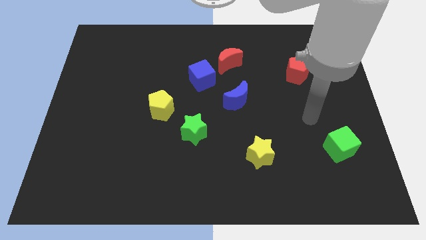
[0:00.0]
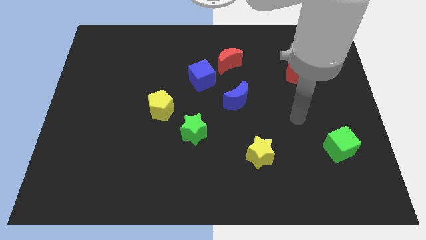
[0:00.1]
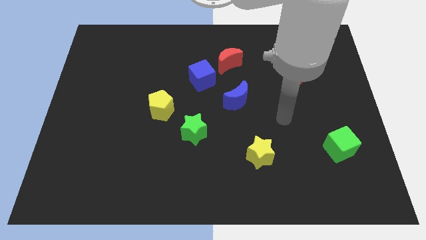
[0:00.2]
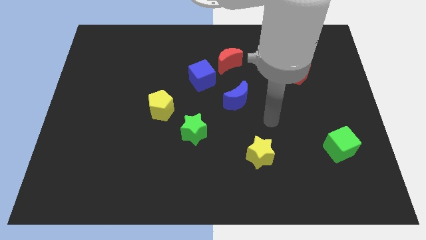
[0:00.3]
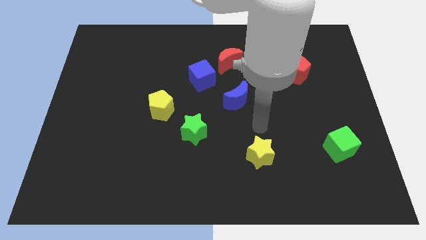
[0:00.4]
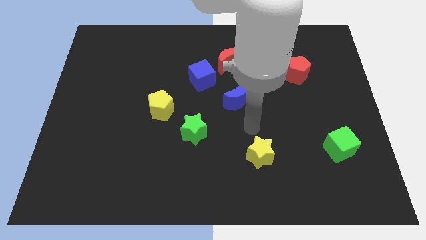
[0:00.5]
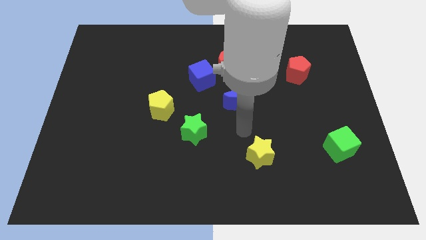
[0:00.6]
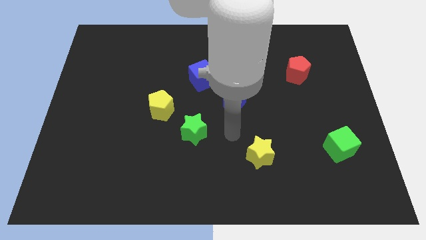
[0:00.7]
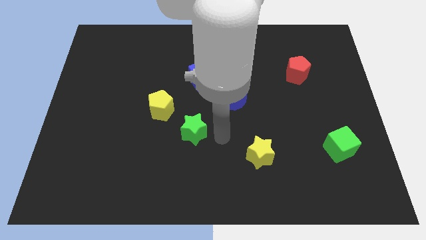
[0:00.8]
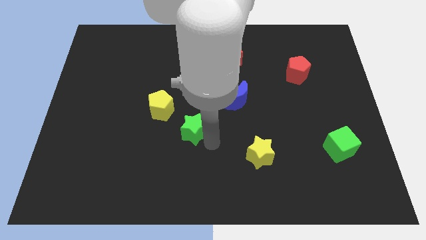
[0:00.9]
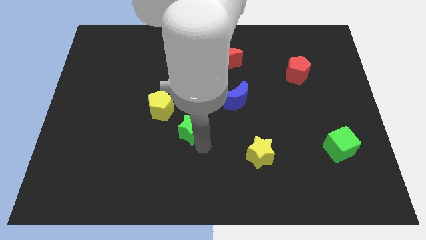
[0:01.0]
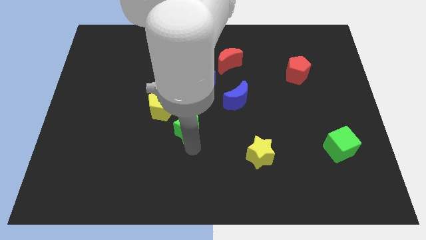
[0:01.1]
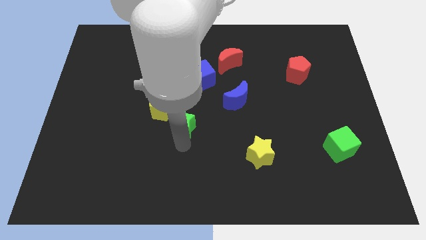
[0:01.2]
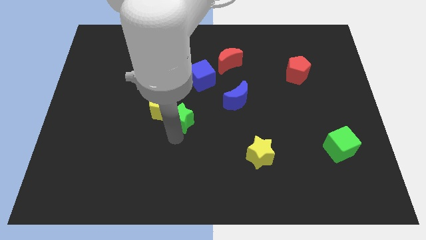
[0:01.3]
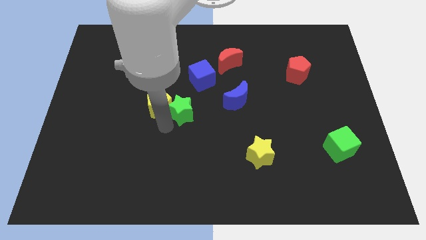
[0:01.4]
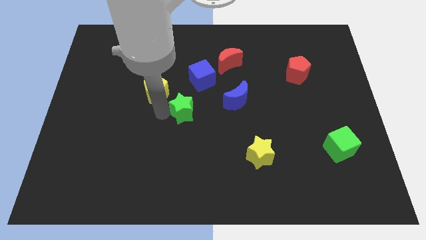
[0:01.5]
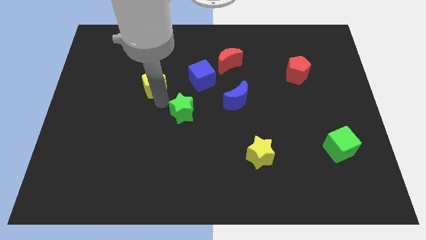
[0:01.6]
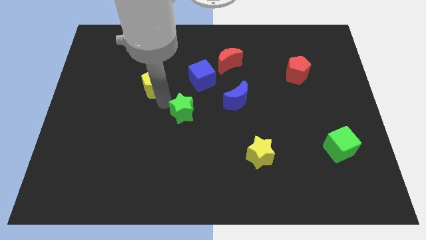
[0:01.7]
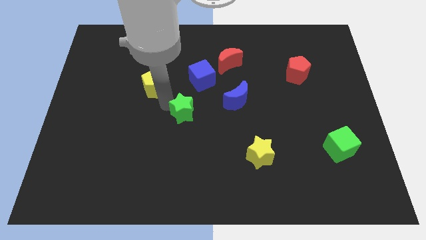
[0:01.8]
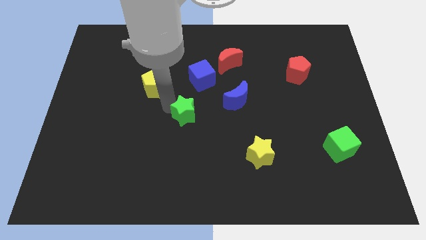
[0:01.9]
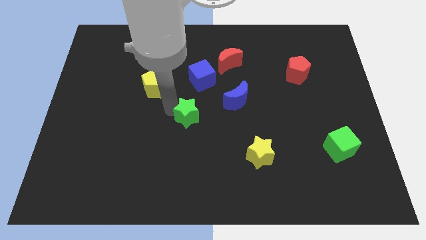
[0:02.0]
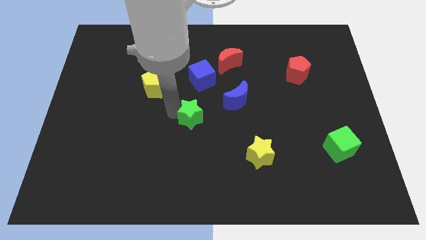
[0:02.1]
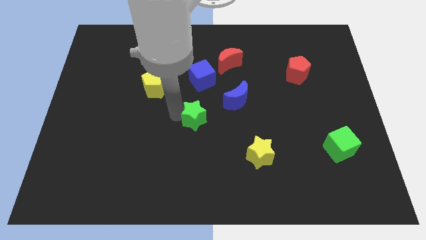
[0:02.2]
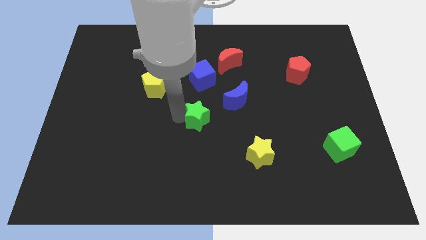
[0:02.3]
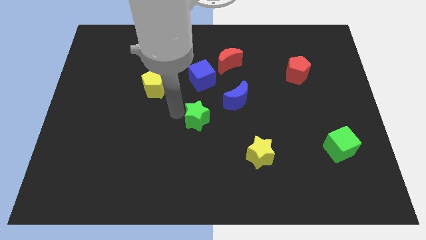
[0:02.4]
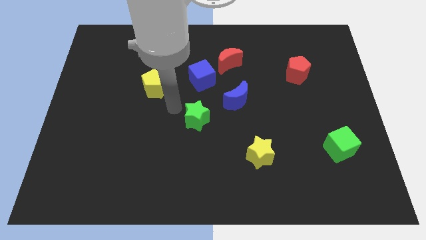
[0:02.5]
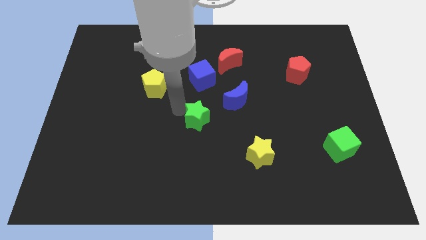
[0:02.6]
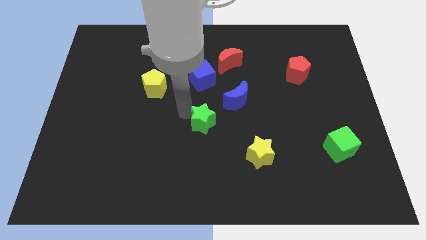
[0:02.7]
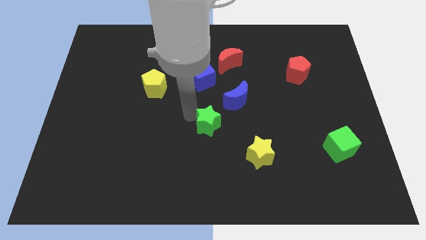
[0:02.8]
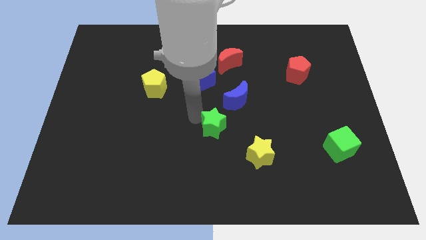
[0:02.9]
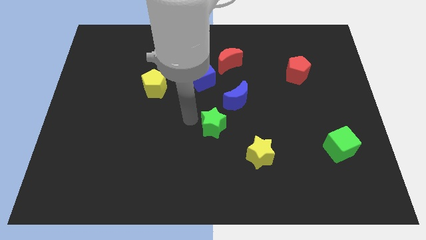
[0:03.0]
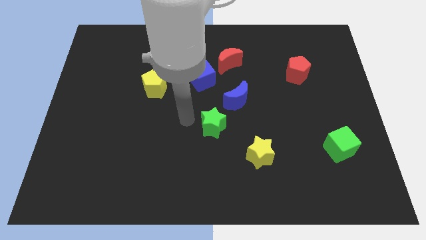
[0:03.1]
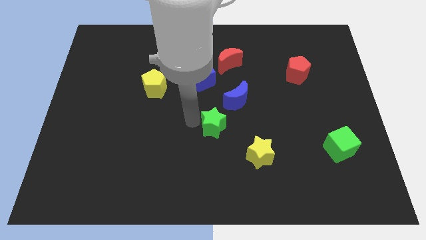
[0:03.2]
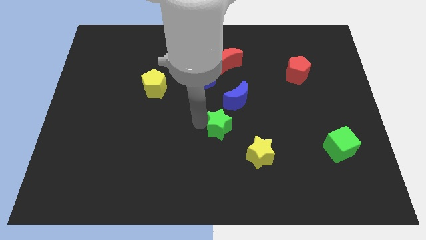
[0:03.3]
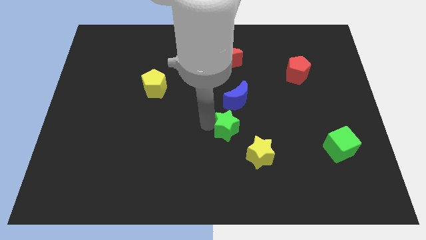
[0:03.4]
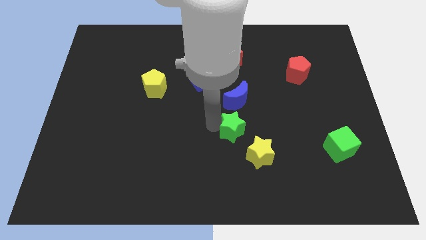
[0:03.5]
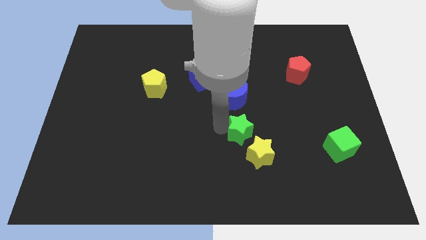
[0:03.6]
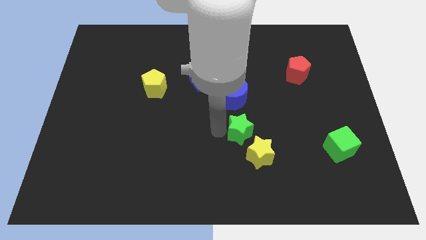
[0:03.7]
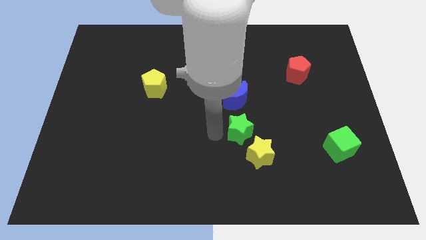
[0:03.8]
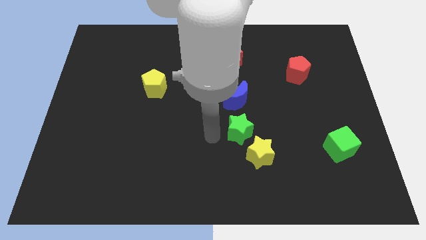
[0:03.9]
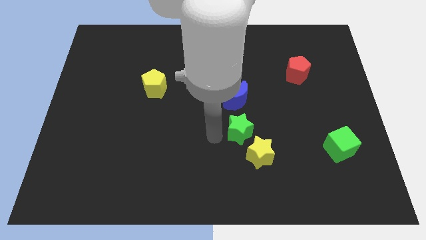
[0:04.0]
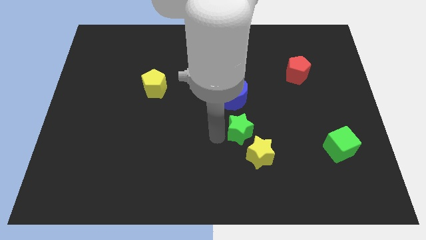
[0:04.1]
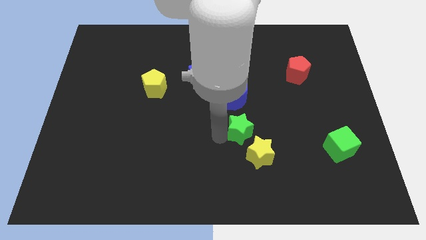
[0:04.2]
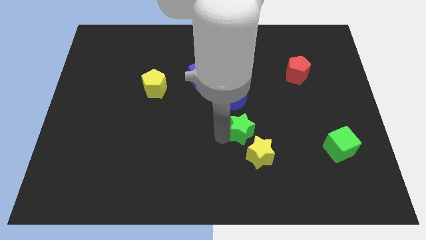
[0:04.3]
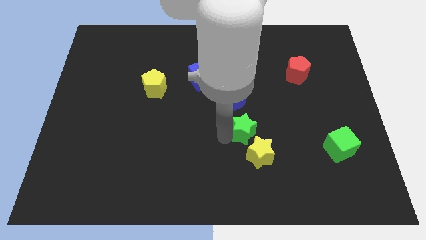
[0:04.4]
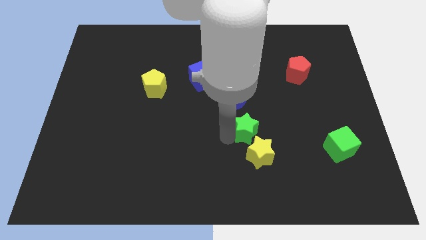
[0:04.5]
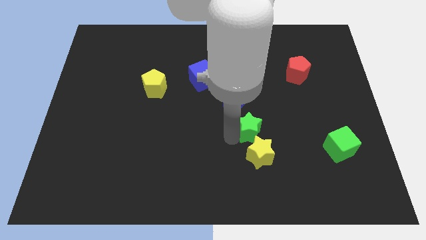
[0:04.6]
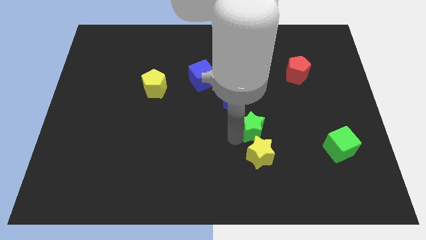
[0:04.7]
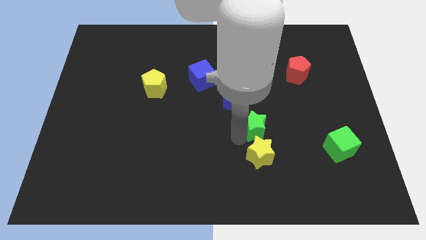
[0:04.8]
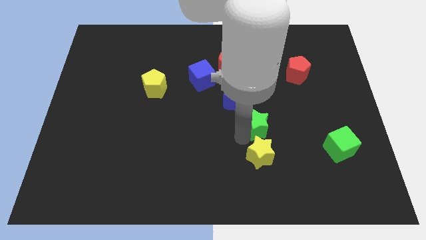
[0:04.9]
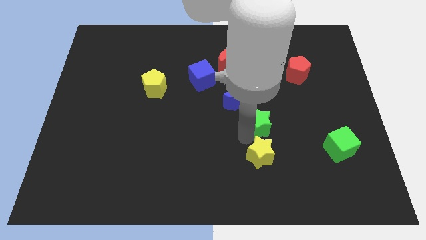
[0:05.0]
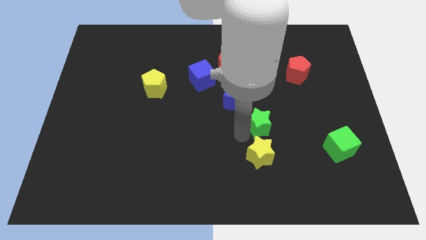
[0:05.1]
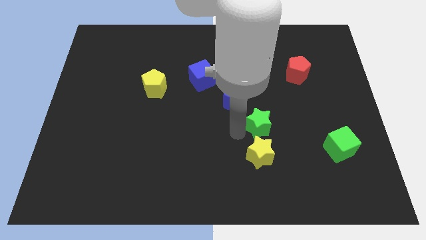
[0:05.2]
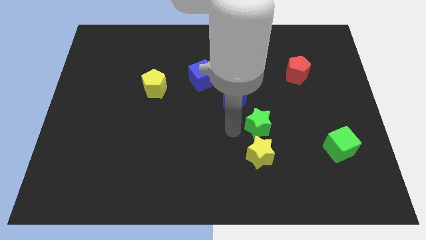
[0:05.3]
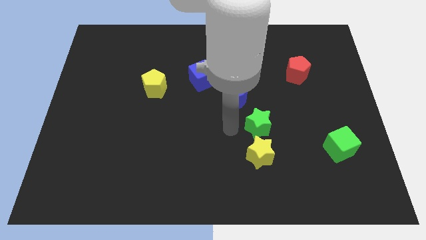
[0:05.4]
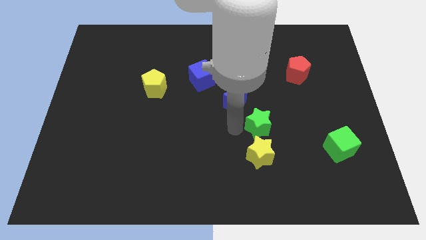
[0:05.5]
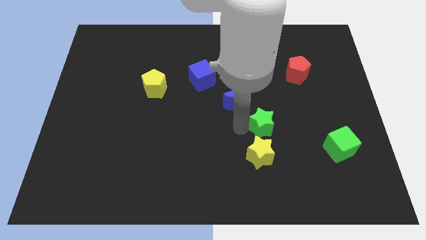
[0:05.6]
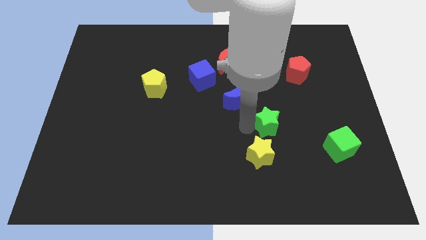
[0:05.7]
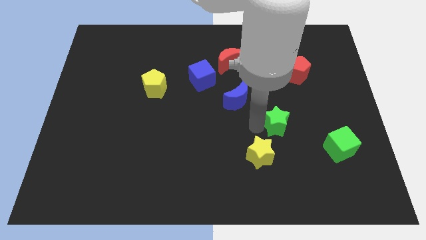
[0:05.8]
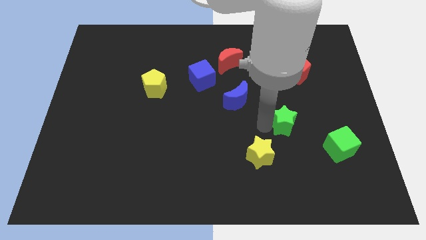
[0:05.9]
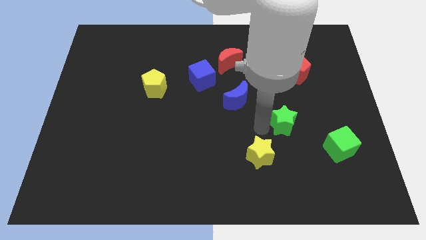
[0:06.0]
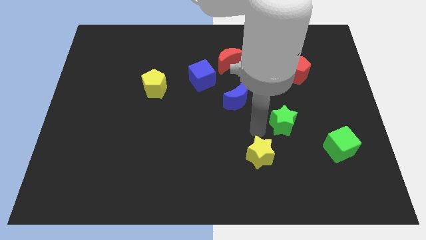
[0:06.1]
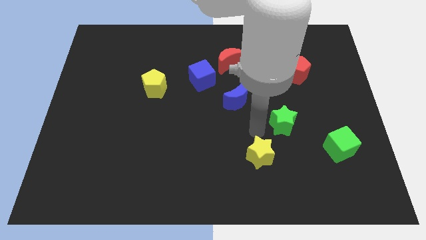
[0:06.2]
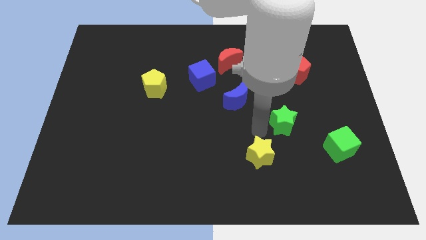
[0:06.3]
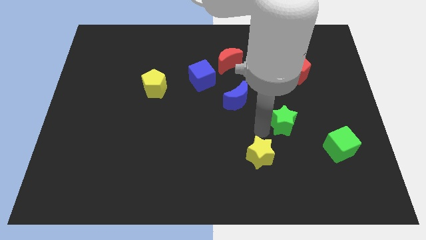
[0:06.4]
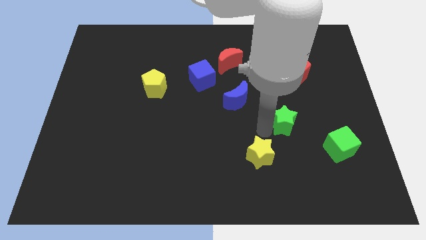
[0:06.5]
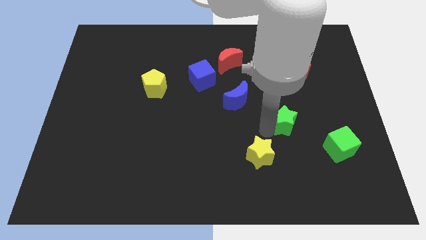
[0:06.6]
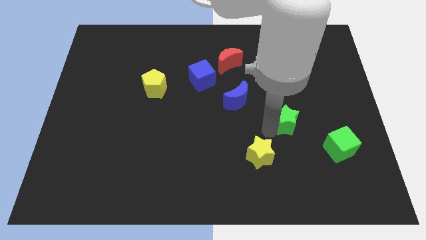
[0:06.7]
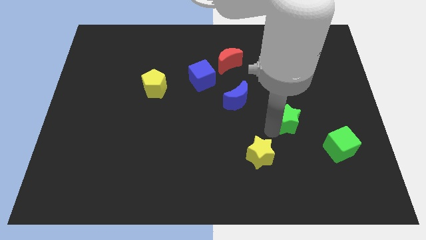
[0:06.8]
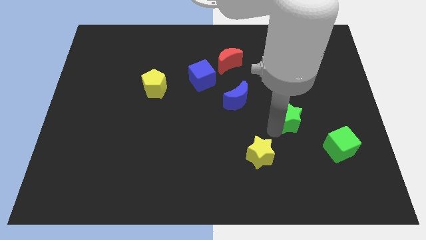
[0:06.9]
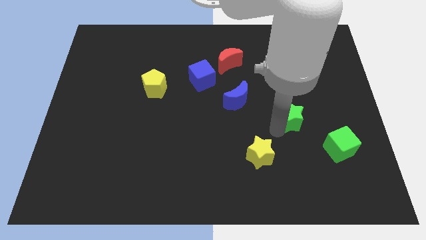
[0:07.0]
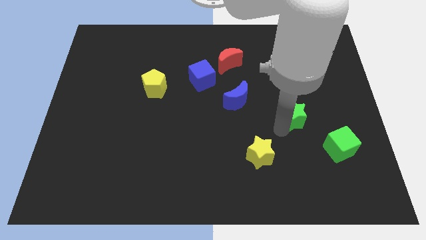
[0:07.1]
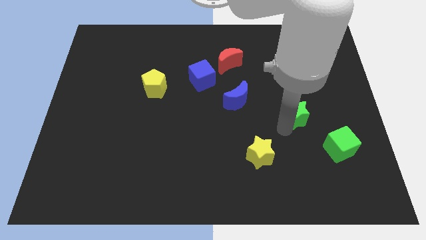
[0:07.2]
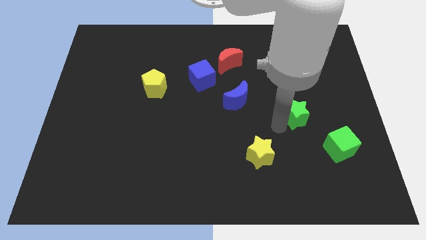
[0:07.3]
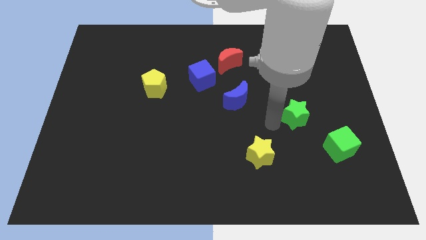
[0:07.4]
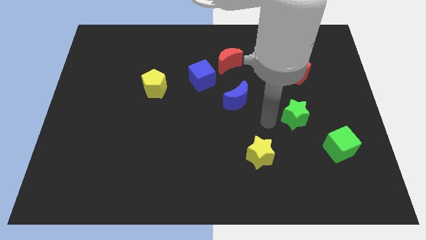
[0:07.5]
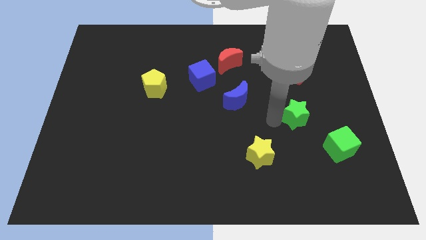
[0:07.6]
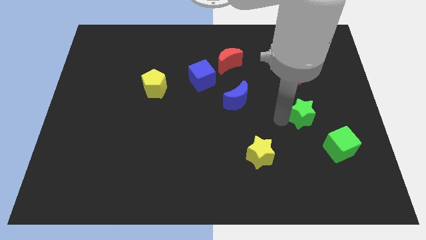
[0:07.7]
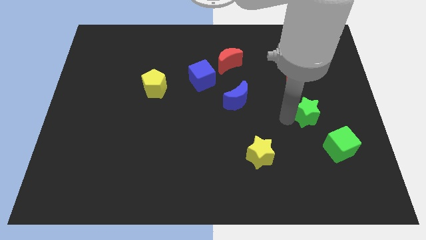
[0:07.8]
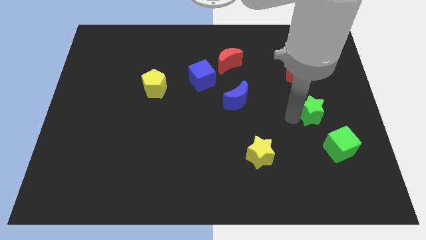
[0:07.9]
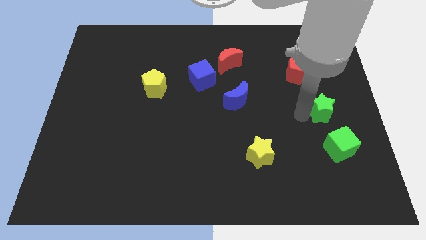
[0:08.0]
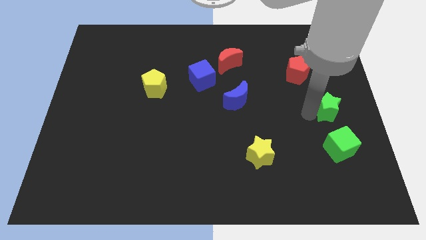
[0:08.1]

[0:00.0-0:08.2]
put the green star to the center right

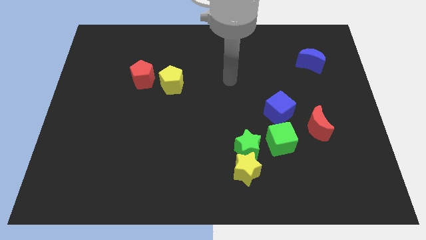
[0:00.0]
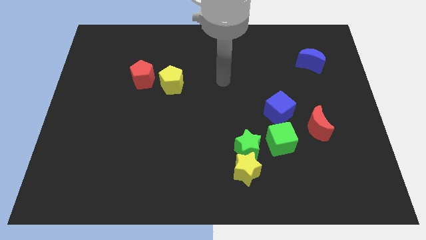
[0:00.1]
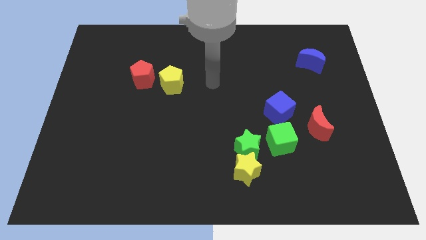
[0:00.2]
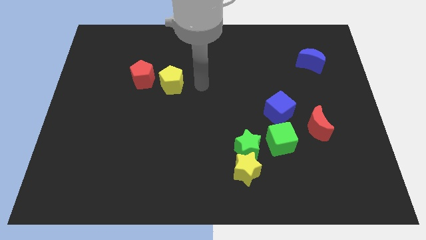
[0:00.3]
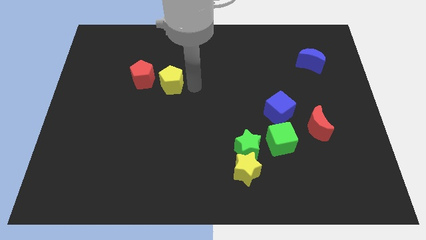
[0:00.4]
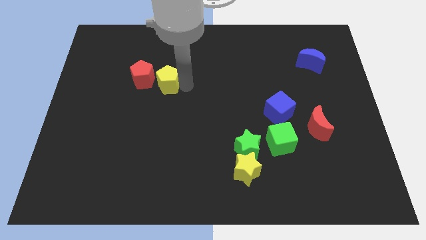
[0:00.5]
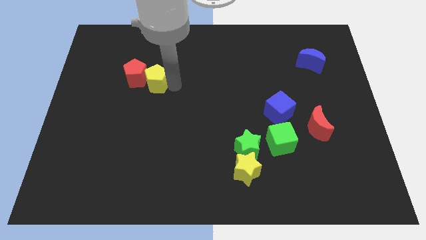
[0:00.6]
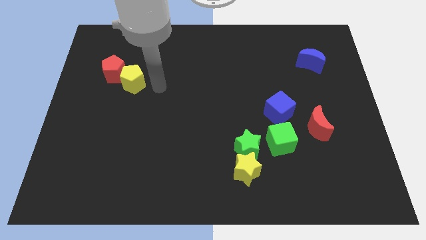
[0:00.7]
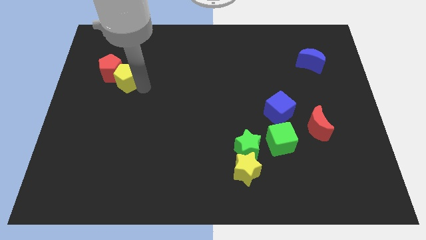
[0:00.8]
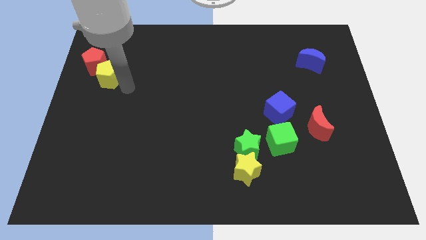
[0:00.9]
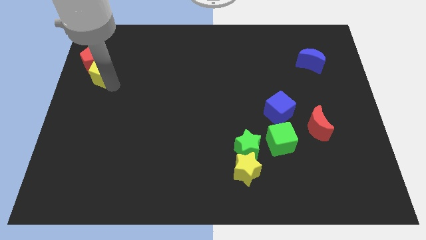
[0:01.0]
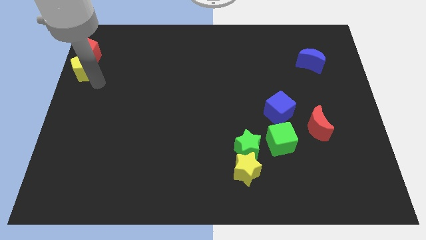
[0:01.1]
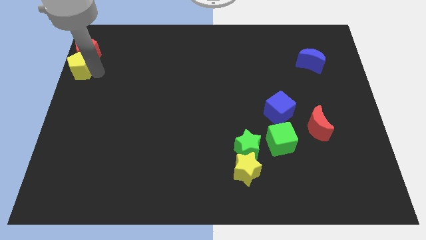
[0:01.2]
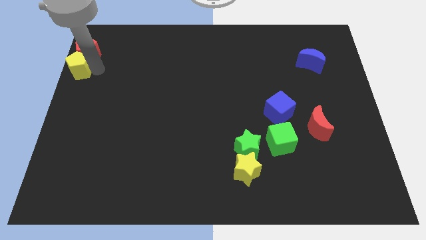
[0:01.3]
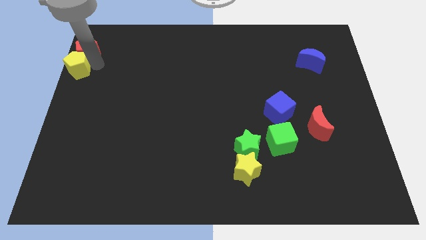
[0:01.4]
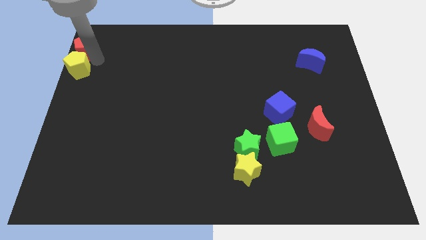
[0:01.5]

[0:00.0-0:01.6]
slide the red pentagon to the top left corner
